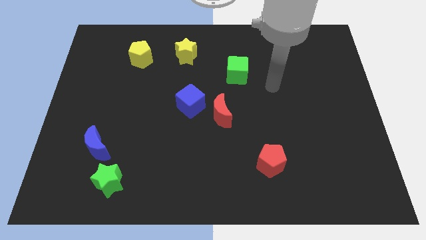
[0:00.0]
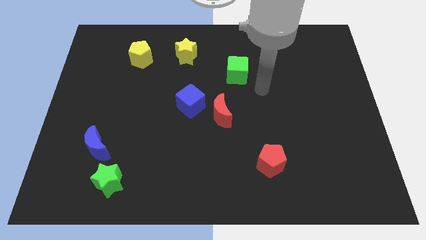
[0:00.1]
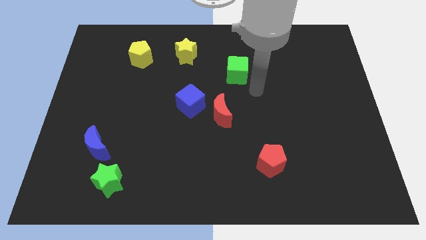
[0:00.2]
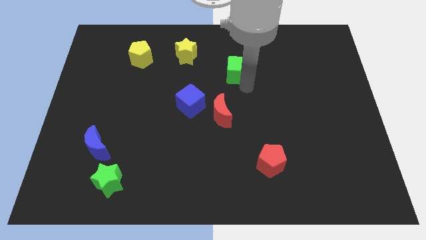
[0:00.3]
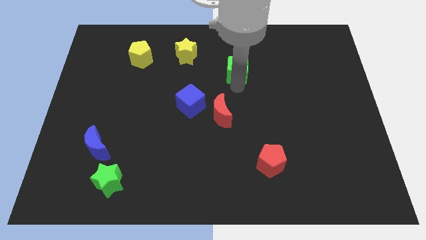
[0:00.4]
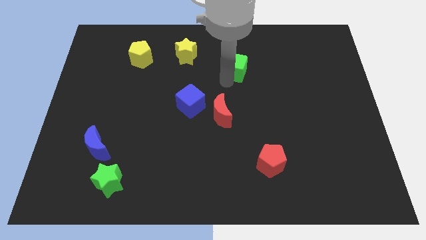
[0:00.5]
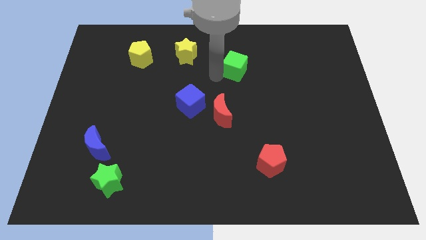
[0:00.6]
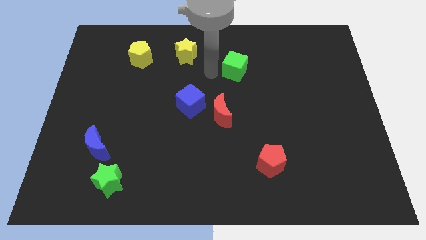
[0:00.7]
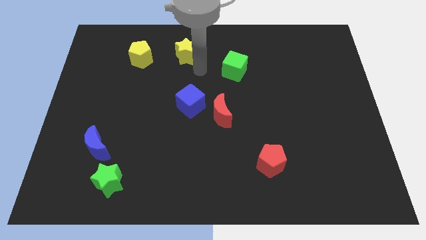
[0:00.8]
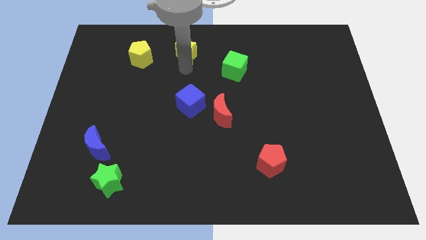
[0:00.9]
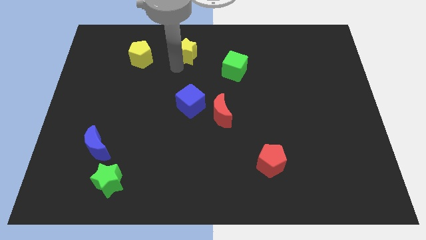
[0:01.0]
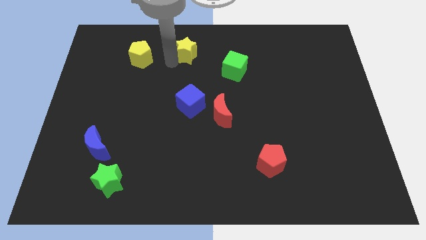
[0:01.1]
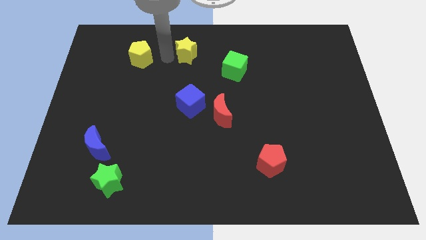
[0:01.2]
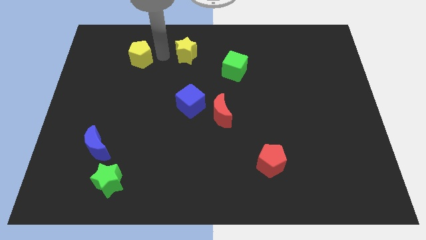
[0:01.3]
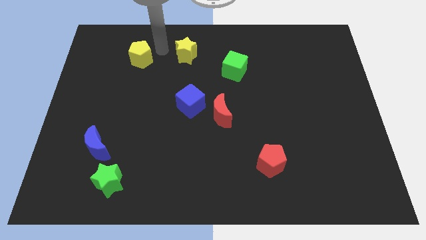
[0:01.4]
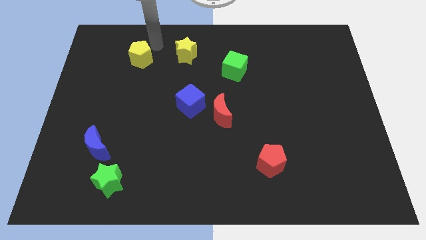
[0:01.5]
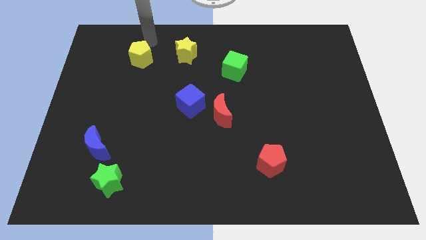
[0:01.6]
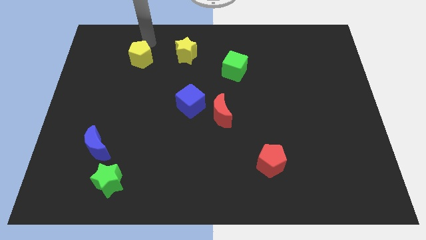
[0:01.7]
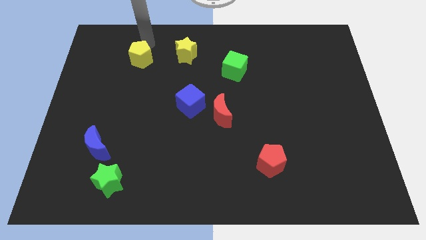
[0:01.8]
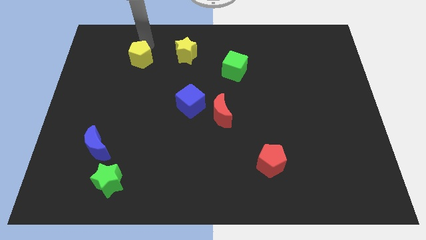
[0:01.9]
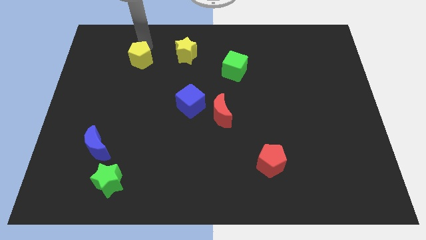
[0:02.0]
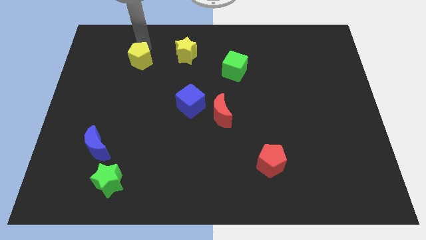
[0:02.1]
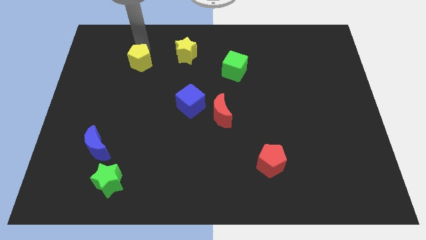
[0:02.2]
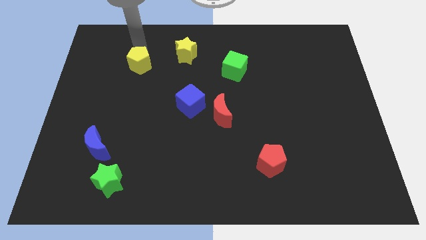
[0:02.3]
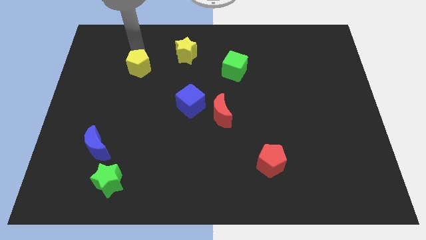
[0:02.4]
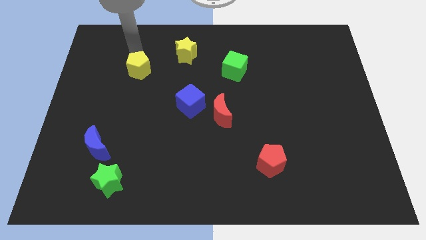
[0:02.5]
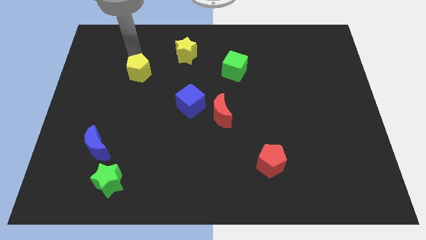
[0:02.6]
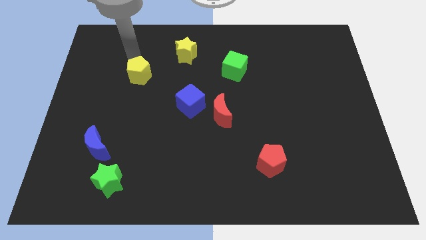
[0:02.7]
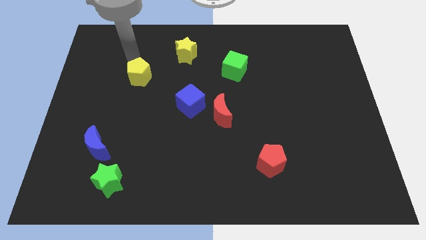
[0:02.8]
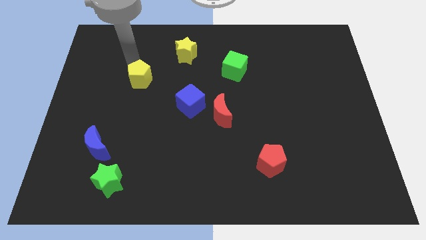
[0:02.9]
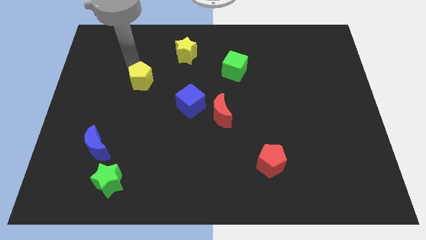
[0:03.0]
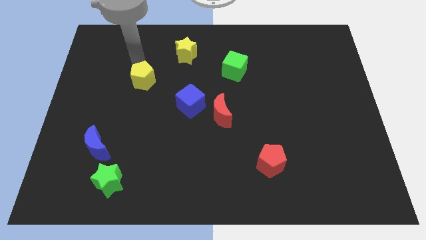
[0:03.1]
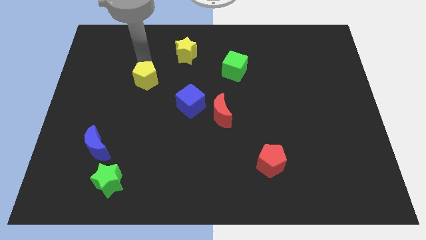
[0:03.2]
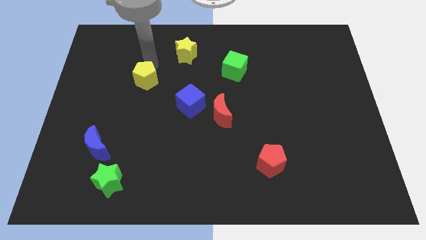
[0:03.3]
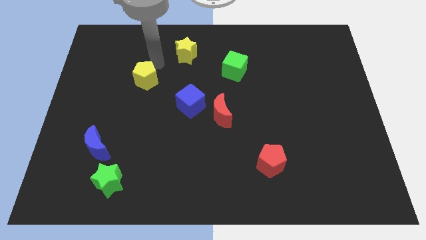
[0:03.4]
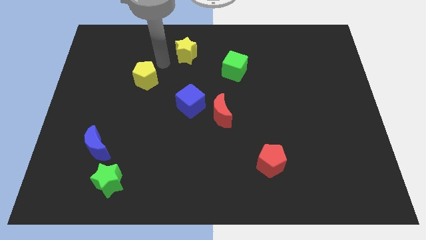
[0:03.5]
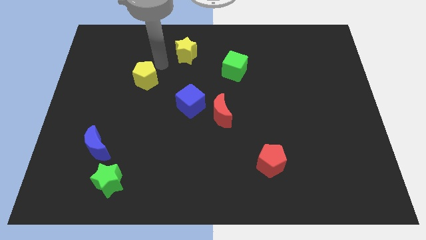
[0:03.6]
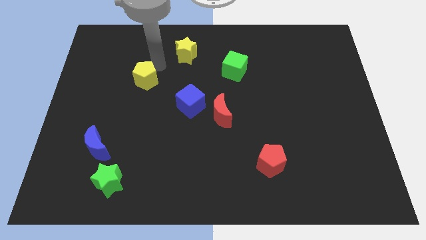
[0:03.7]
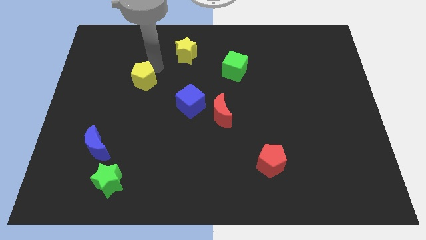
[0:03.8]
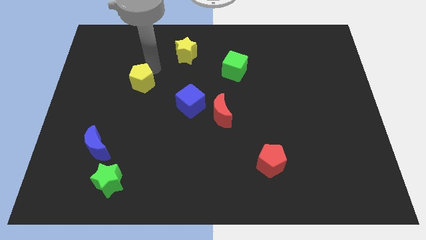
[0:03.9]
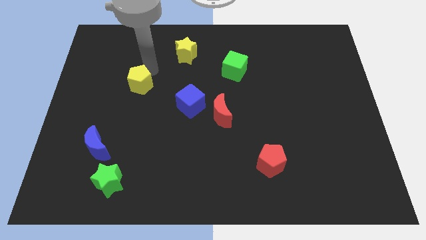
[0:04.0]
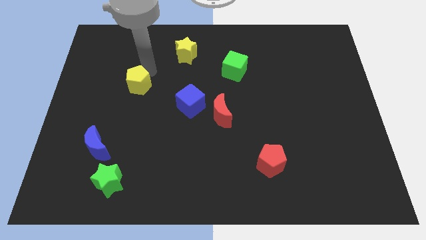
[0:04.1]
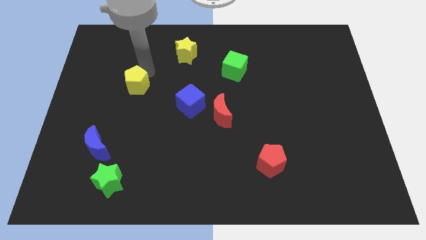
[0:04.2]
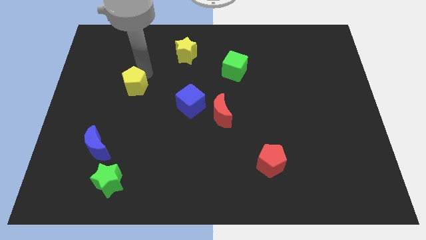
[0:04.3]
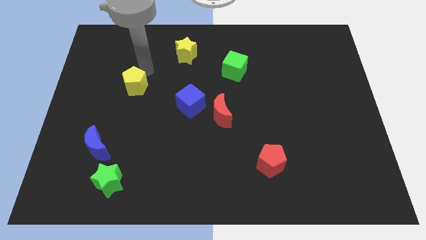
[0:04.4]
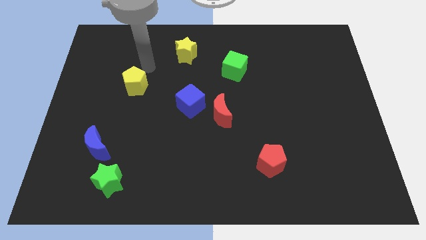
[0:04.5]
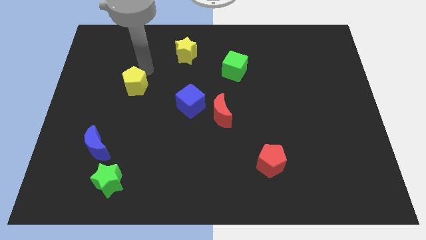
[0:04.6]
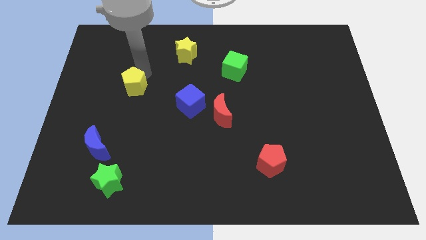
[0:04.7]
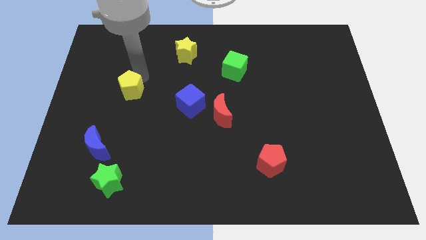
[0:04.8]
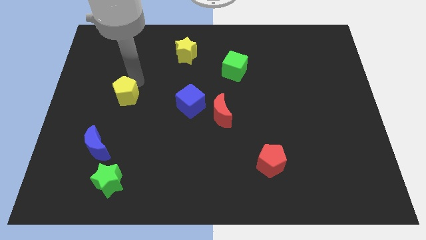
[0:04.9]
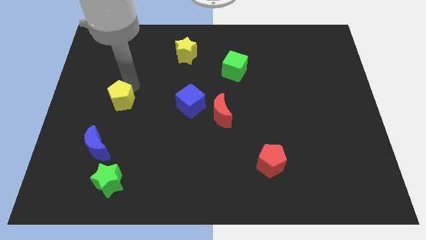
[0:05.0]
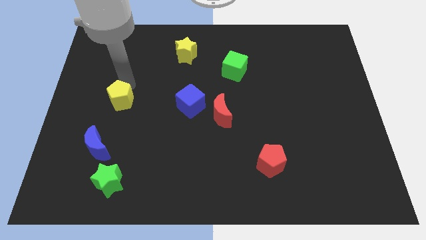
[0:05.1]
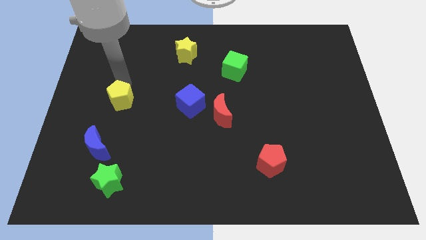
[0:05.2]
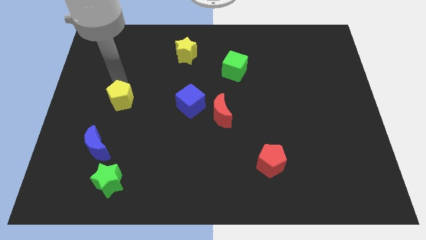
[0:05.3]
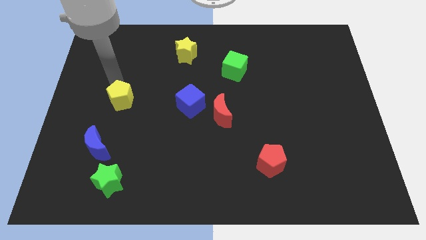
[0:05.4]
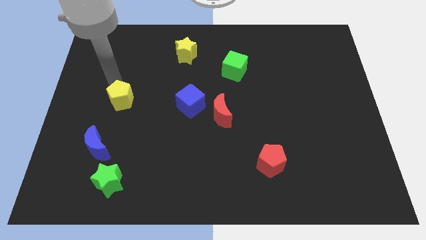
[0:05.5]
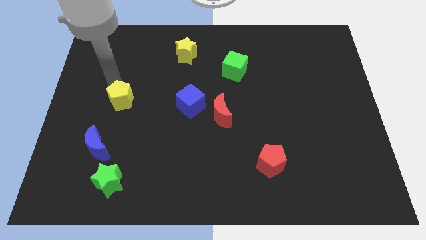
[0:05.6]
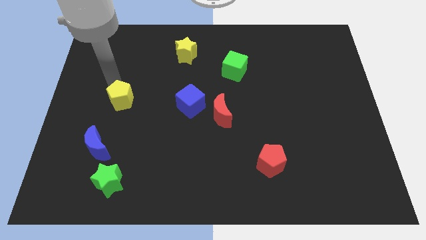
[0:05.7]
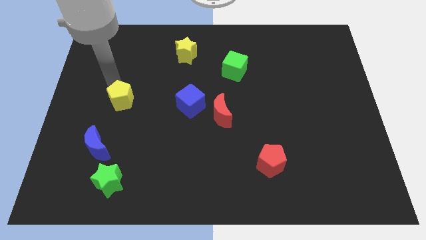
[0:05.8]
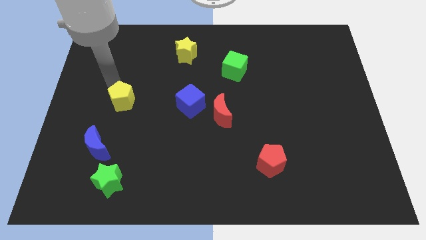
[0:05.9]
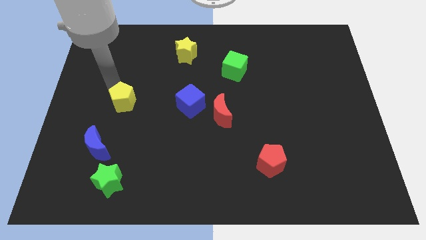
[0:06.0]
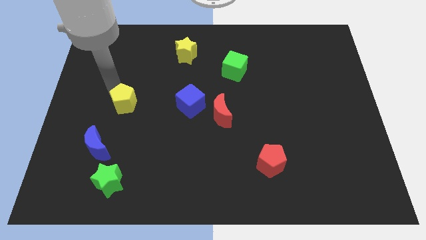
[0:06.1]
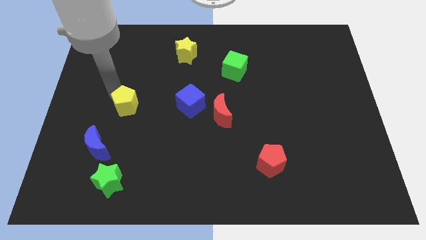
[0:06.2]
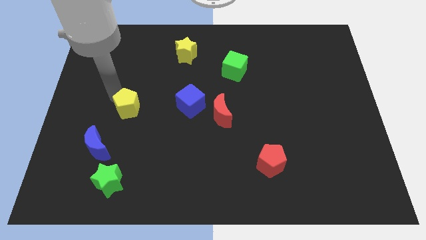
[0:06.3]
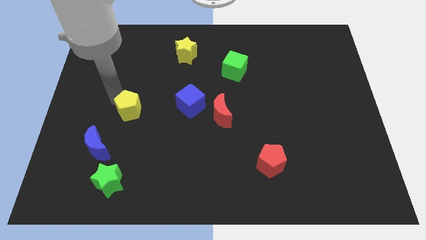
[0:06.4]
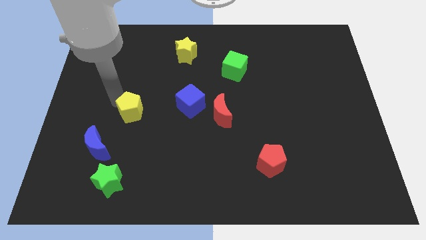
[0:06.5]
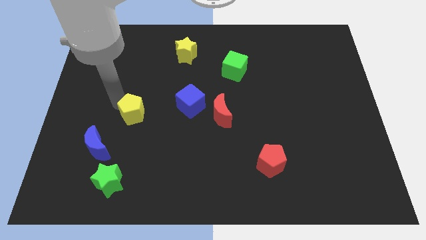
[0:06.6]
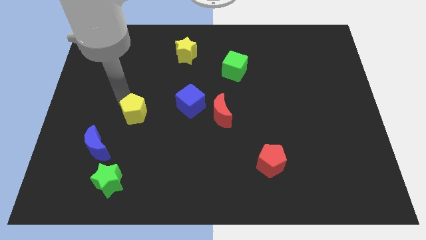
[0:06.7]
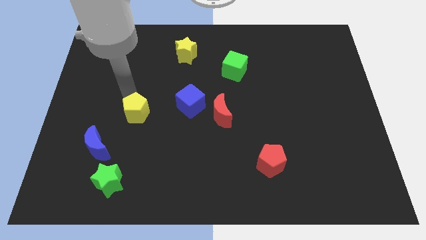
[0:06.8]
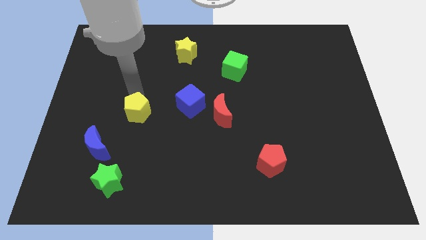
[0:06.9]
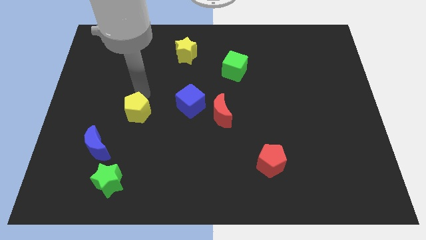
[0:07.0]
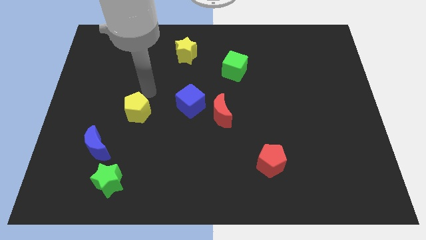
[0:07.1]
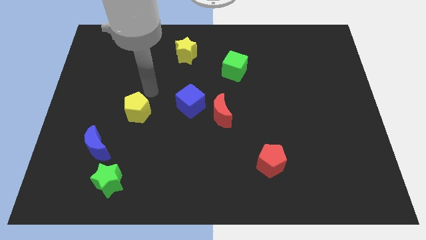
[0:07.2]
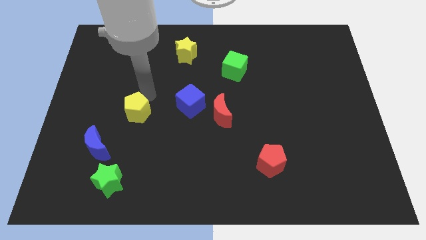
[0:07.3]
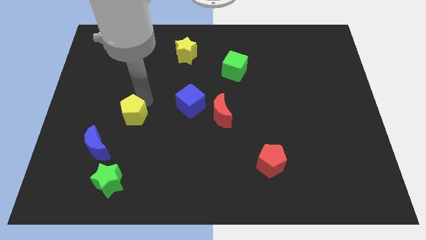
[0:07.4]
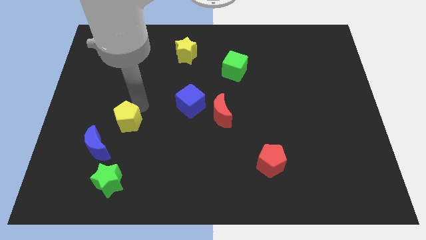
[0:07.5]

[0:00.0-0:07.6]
slide the yellow pentagon downwards

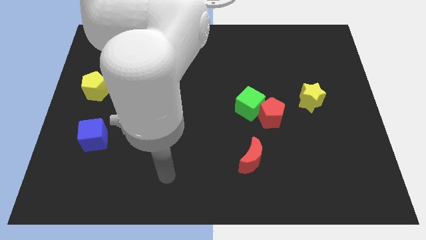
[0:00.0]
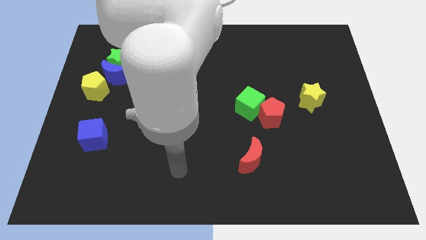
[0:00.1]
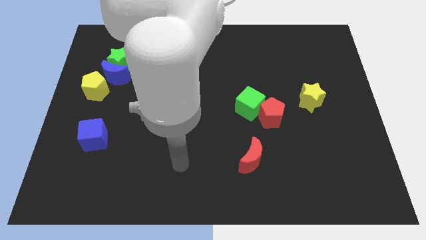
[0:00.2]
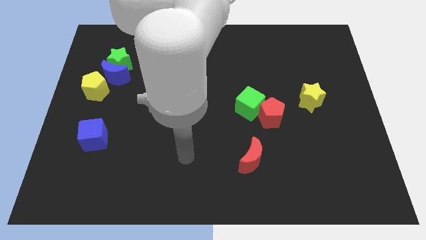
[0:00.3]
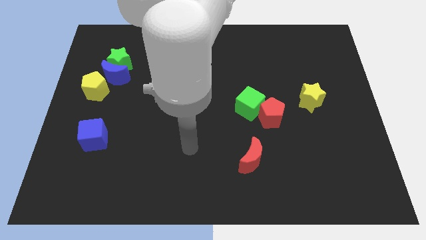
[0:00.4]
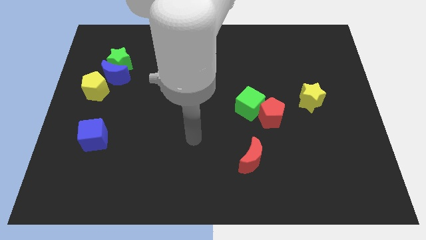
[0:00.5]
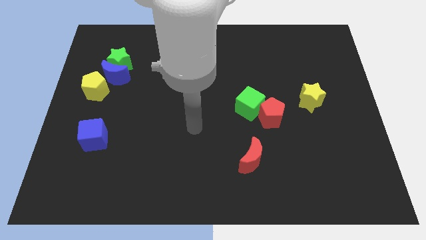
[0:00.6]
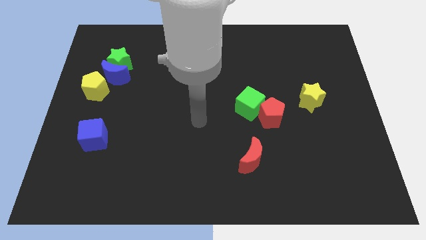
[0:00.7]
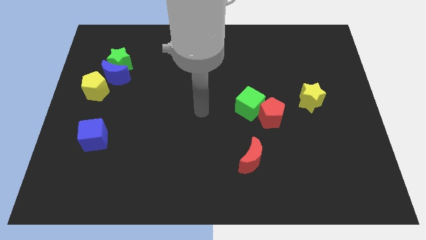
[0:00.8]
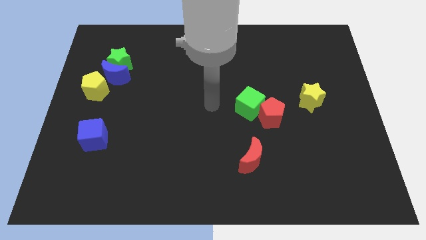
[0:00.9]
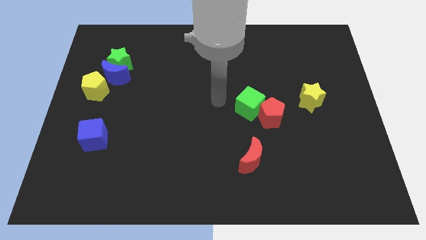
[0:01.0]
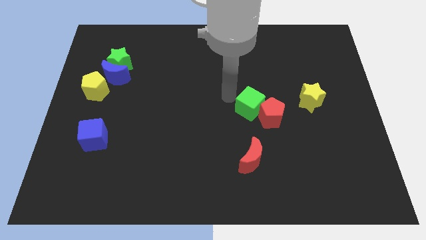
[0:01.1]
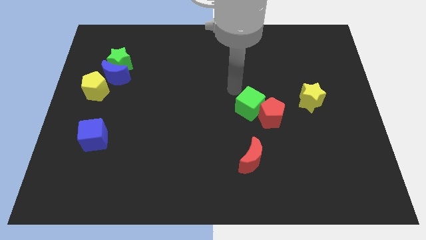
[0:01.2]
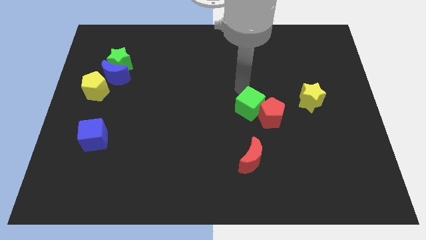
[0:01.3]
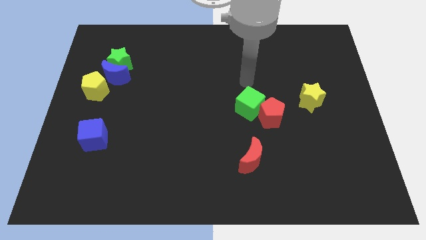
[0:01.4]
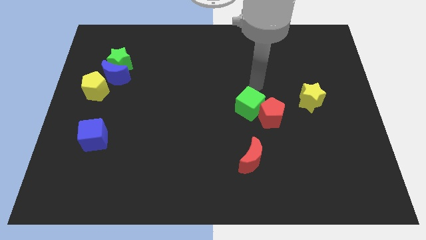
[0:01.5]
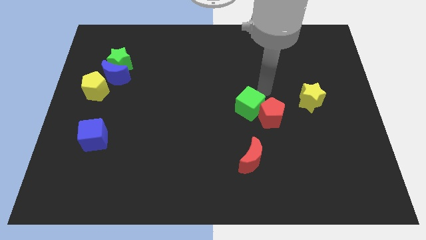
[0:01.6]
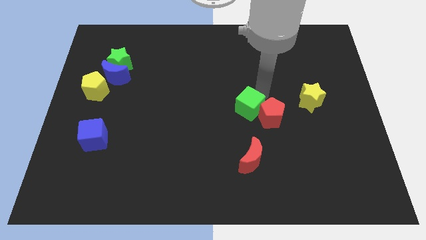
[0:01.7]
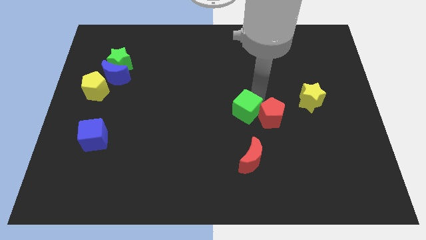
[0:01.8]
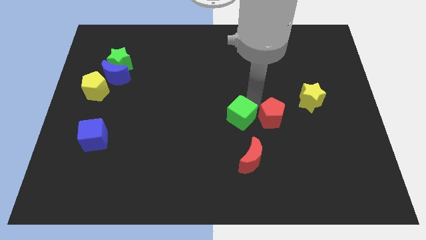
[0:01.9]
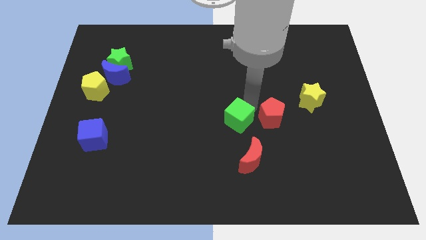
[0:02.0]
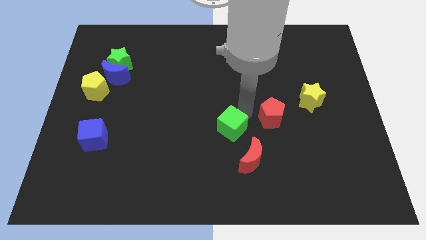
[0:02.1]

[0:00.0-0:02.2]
push the green cube downwards and left slightly
